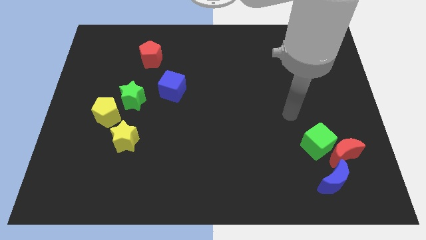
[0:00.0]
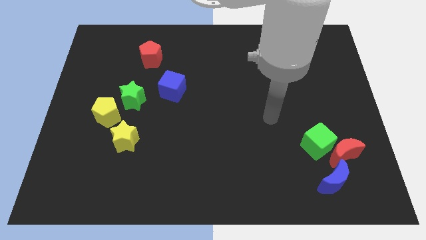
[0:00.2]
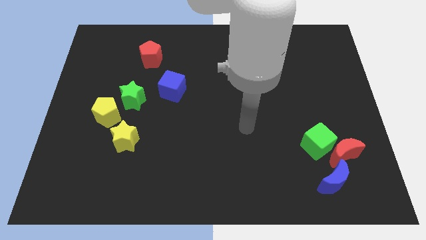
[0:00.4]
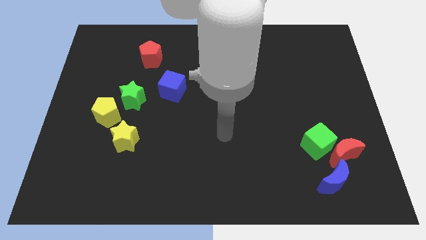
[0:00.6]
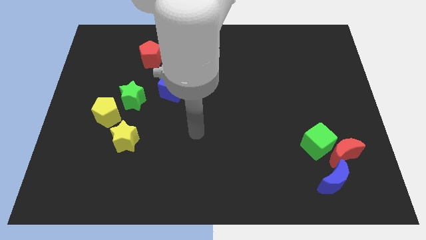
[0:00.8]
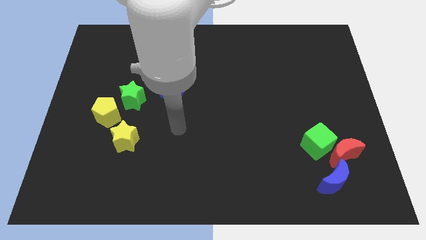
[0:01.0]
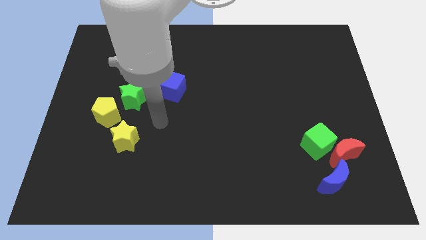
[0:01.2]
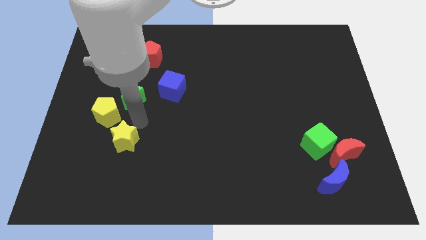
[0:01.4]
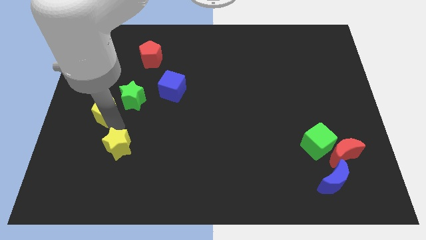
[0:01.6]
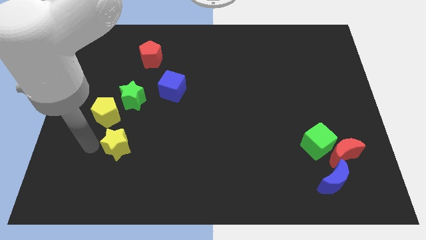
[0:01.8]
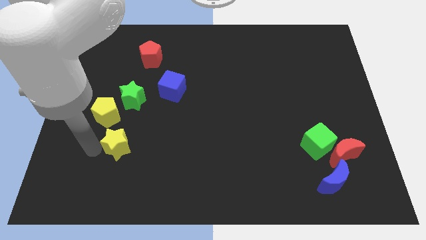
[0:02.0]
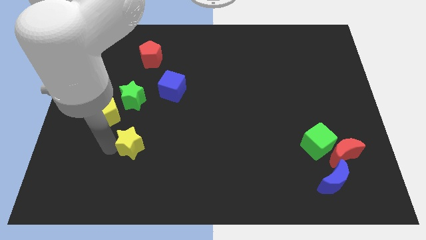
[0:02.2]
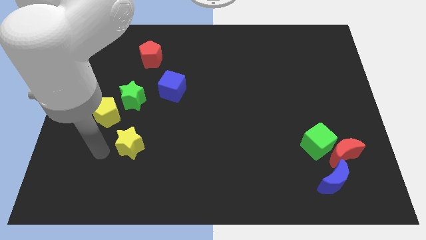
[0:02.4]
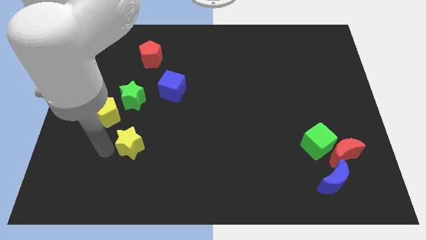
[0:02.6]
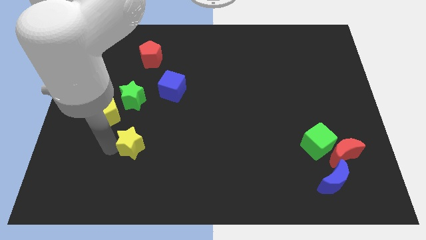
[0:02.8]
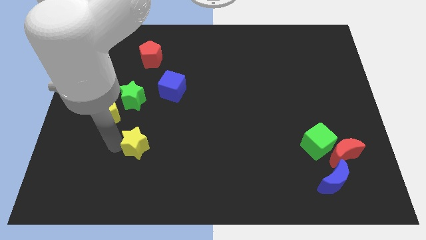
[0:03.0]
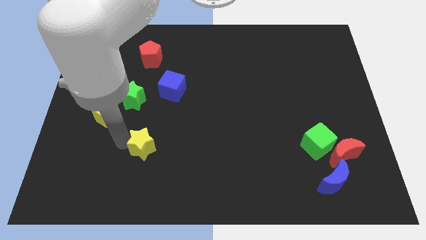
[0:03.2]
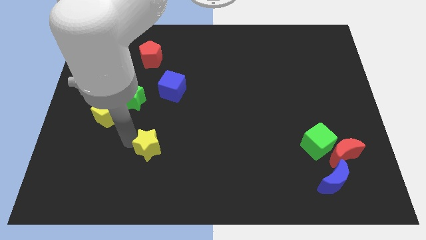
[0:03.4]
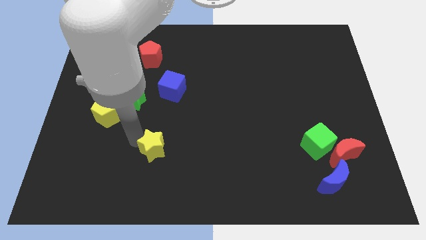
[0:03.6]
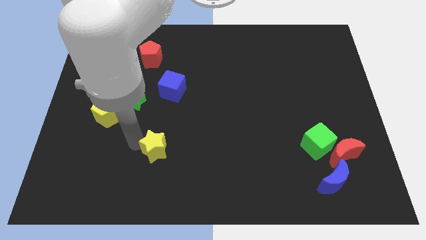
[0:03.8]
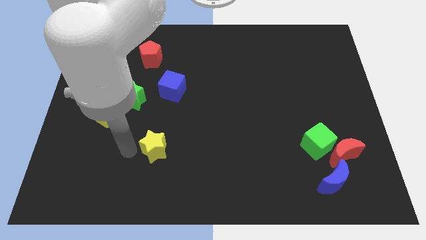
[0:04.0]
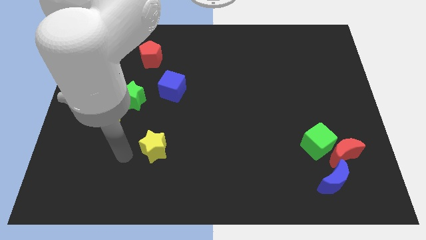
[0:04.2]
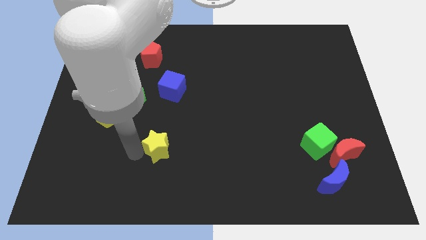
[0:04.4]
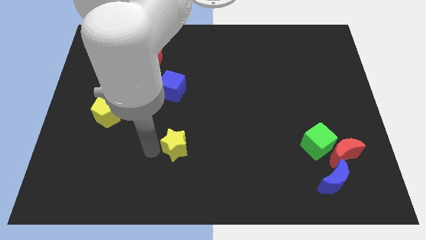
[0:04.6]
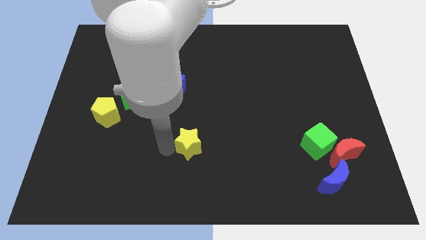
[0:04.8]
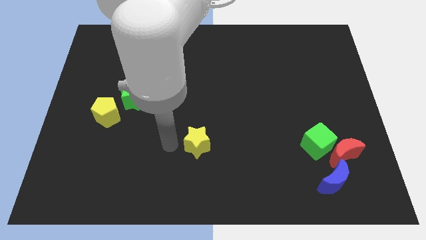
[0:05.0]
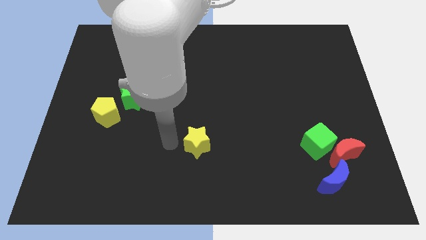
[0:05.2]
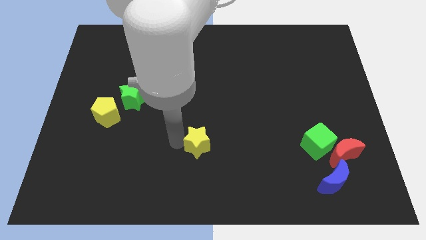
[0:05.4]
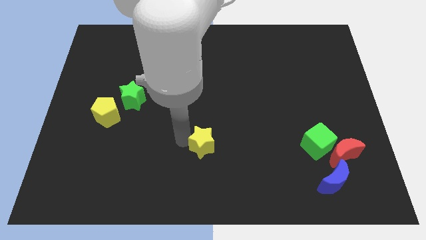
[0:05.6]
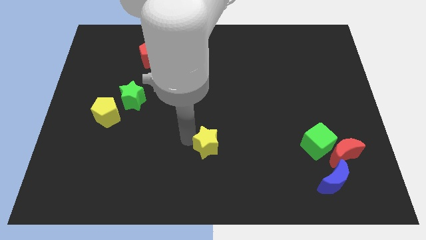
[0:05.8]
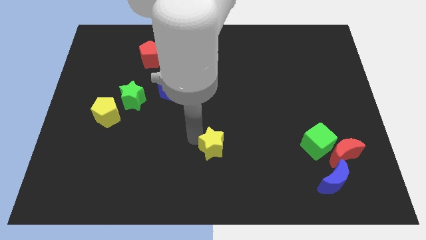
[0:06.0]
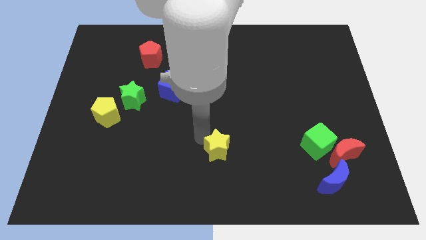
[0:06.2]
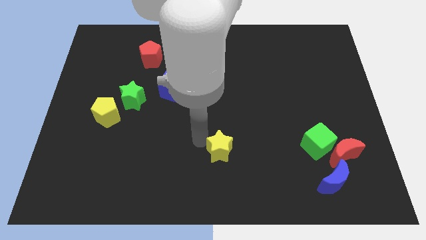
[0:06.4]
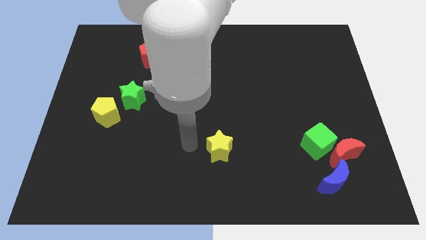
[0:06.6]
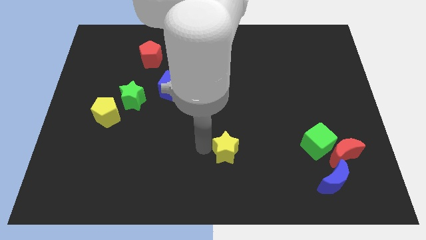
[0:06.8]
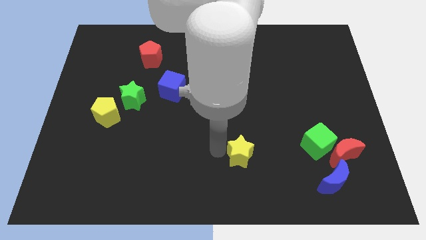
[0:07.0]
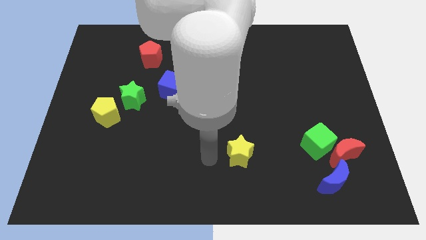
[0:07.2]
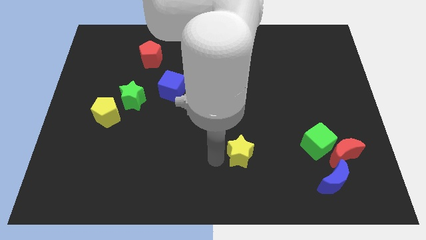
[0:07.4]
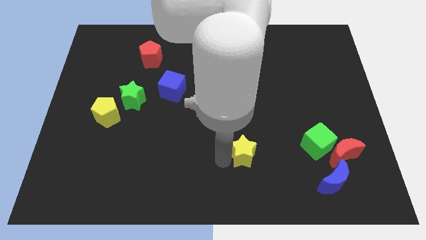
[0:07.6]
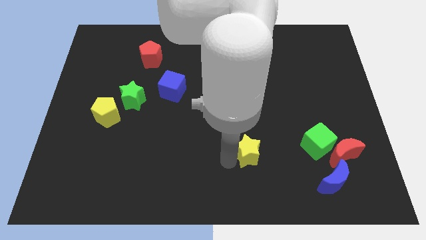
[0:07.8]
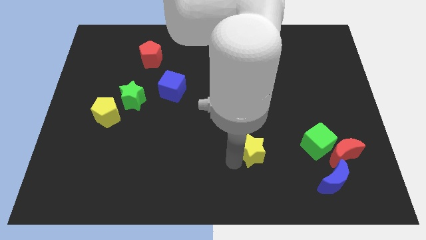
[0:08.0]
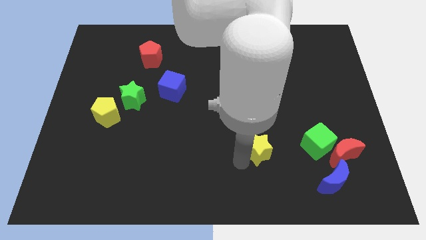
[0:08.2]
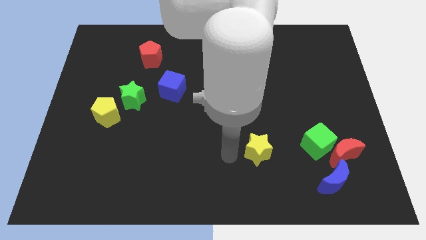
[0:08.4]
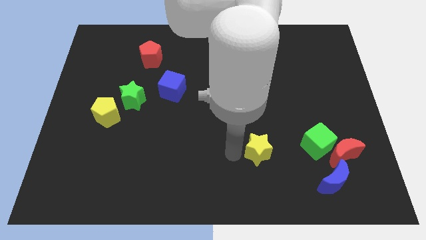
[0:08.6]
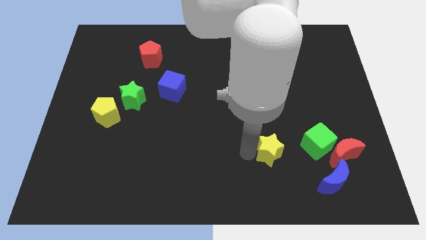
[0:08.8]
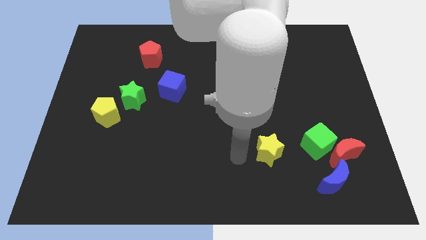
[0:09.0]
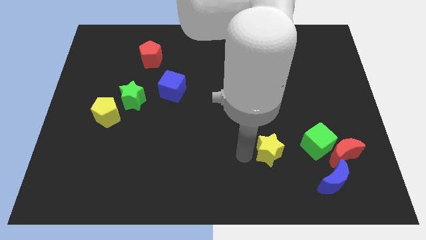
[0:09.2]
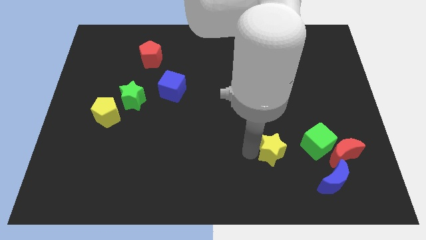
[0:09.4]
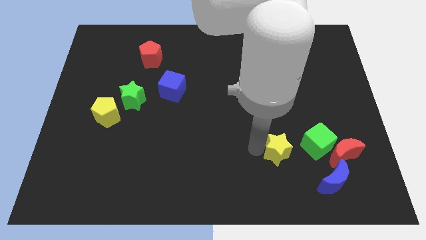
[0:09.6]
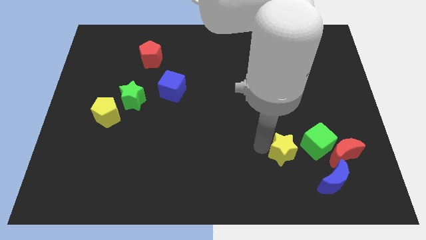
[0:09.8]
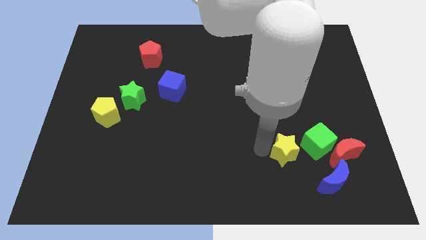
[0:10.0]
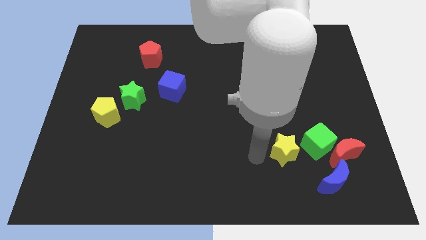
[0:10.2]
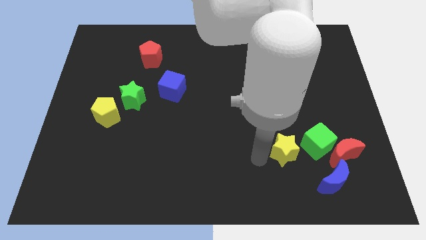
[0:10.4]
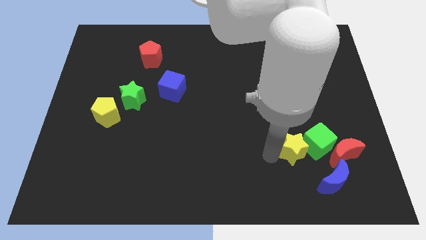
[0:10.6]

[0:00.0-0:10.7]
put the yellow star towards the green cube

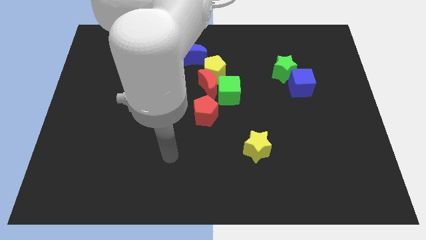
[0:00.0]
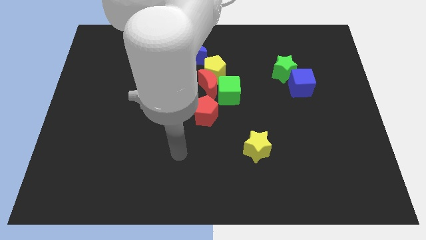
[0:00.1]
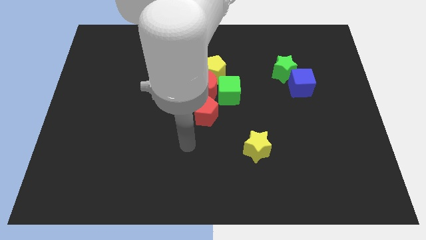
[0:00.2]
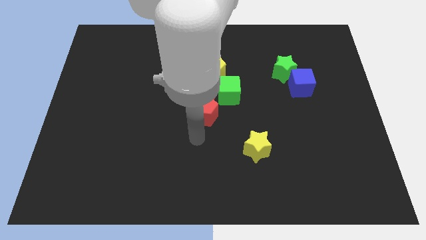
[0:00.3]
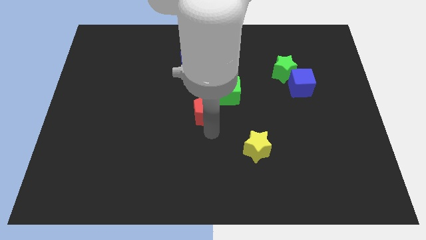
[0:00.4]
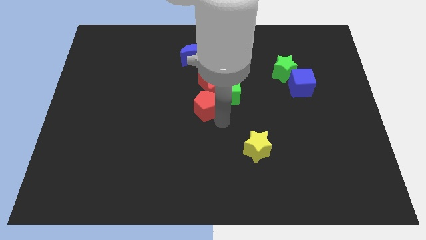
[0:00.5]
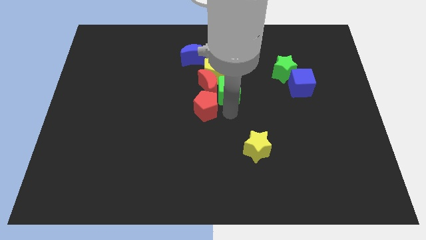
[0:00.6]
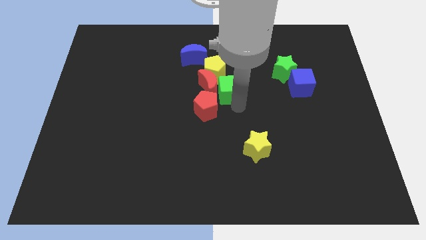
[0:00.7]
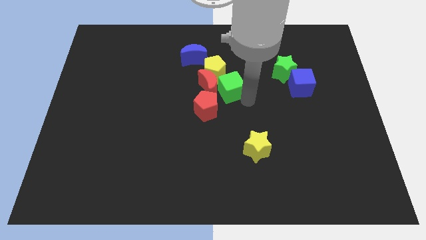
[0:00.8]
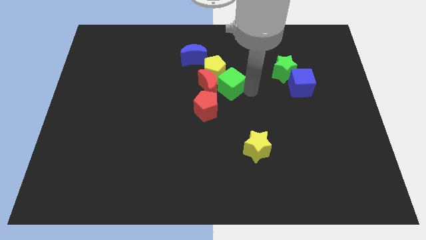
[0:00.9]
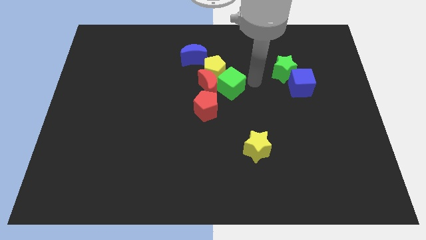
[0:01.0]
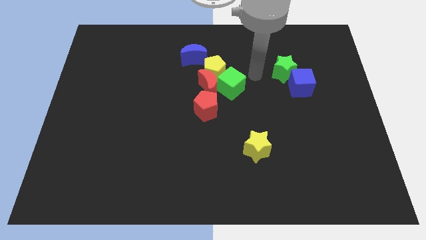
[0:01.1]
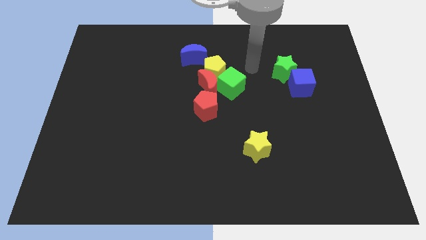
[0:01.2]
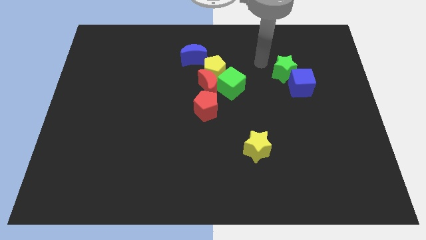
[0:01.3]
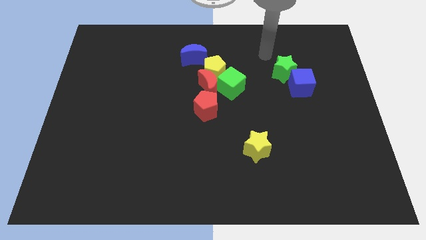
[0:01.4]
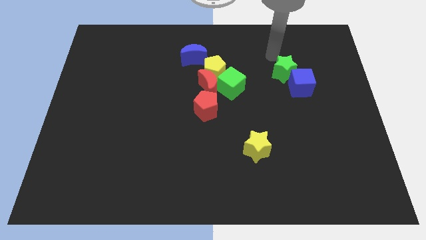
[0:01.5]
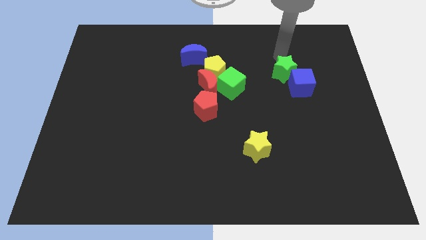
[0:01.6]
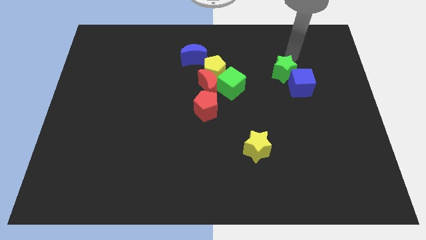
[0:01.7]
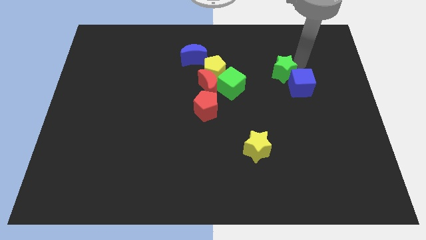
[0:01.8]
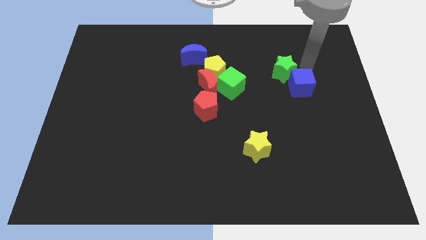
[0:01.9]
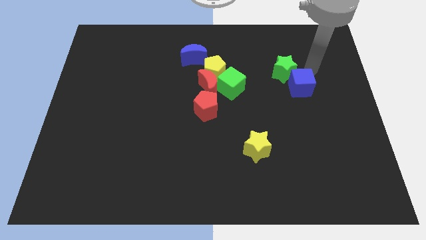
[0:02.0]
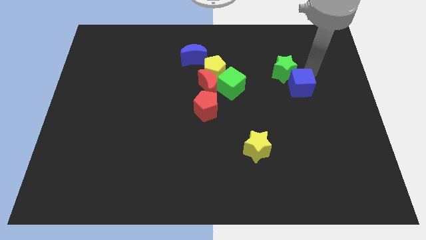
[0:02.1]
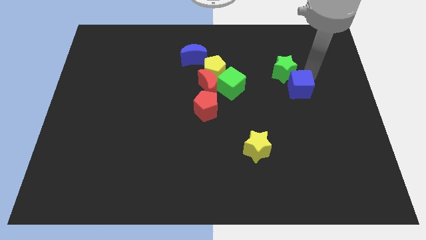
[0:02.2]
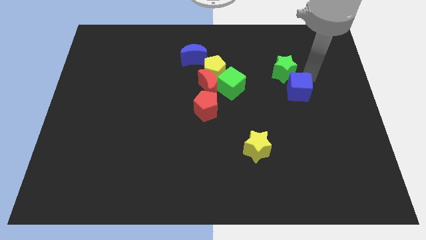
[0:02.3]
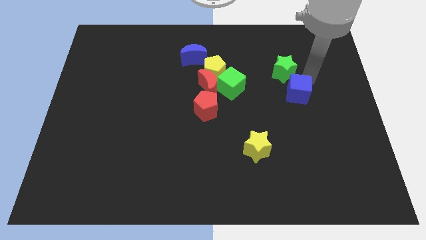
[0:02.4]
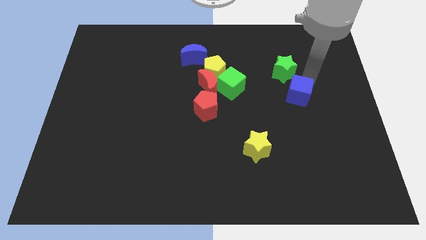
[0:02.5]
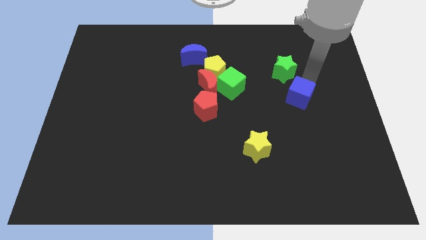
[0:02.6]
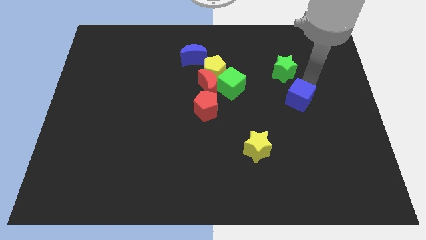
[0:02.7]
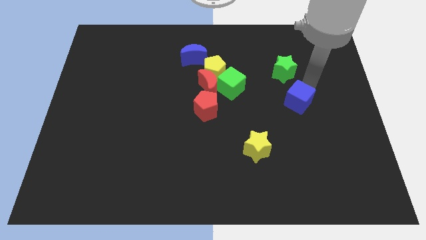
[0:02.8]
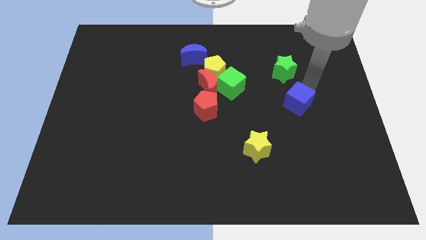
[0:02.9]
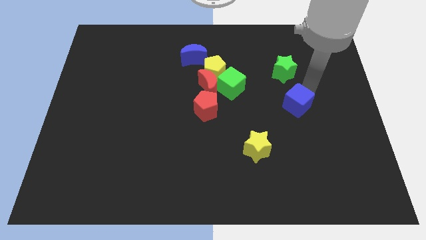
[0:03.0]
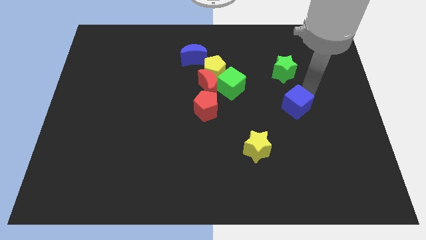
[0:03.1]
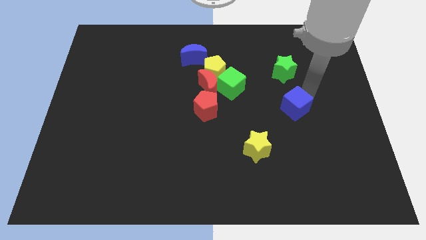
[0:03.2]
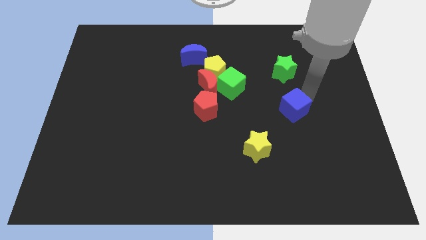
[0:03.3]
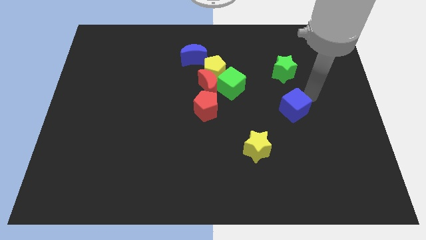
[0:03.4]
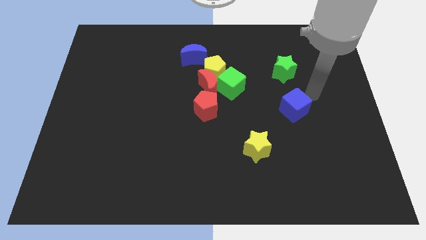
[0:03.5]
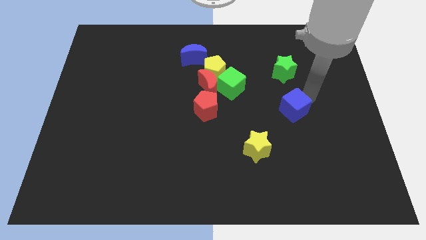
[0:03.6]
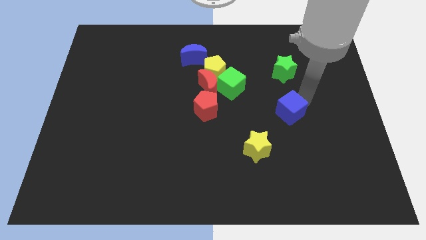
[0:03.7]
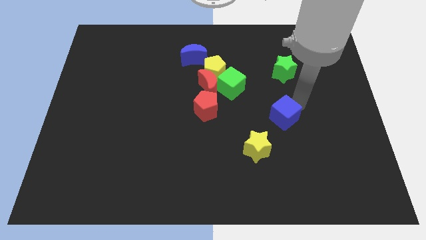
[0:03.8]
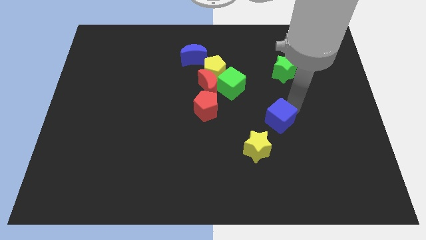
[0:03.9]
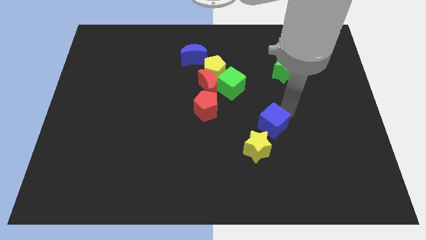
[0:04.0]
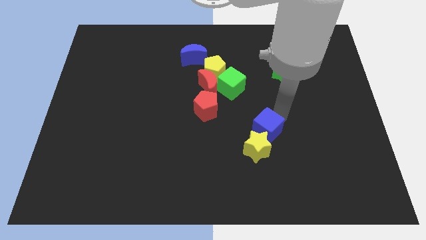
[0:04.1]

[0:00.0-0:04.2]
slide the blue cube to the yellow star
